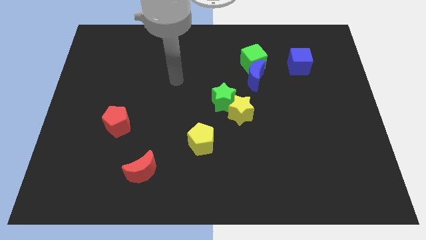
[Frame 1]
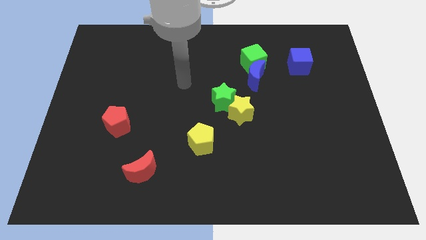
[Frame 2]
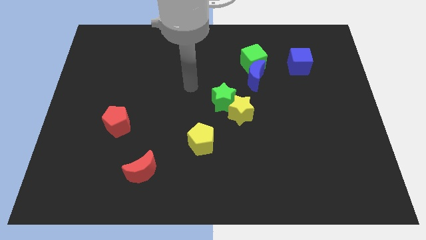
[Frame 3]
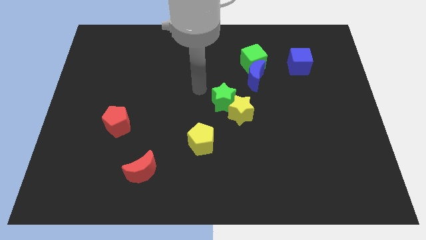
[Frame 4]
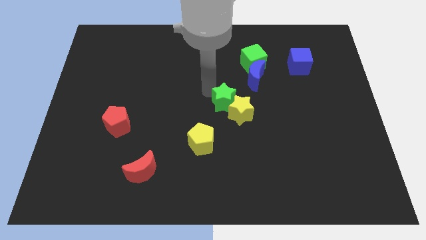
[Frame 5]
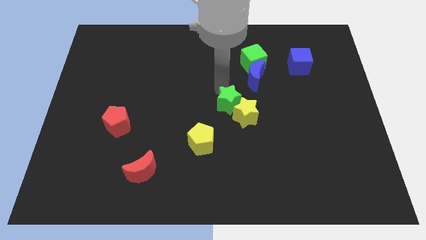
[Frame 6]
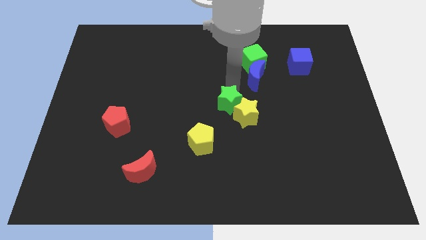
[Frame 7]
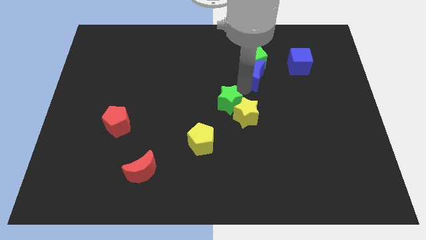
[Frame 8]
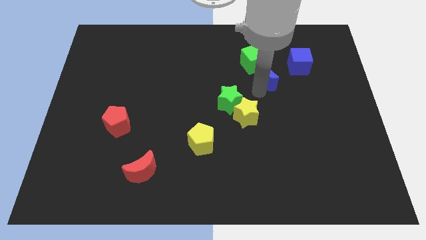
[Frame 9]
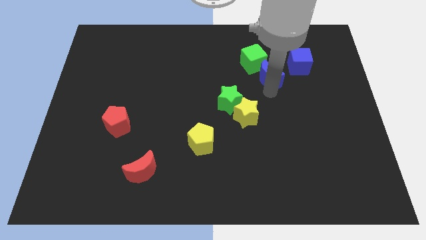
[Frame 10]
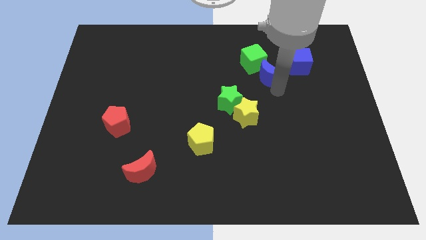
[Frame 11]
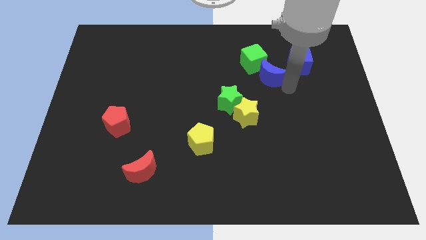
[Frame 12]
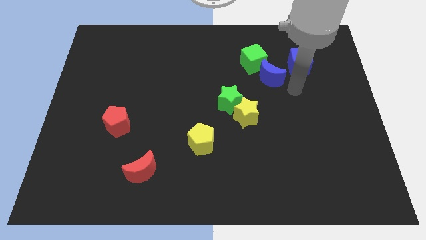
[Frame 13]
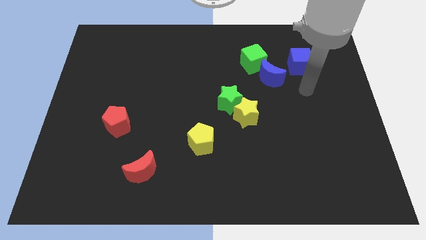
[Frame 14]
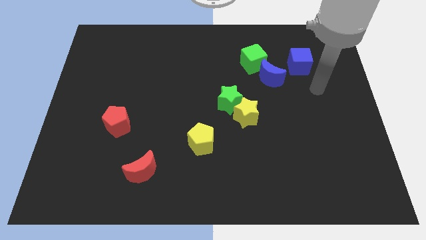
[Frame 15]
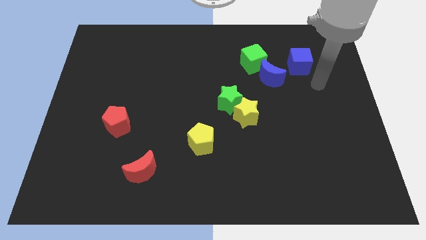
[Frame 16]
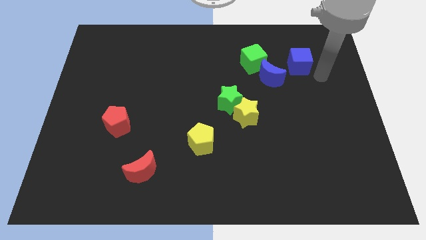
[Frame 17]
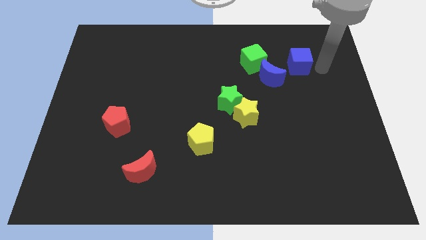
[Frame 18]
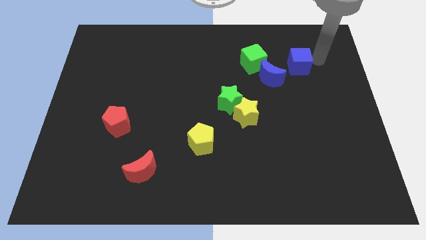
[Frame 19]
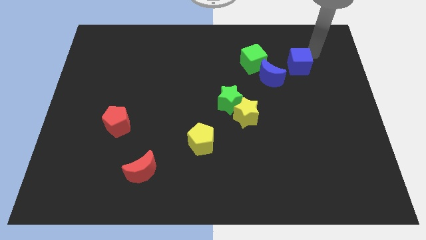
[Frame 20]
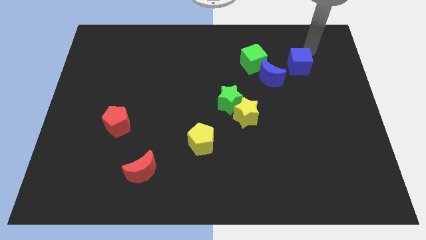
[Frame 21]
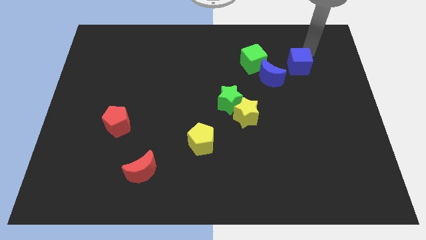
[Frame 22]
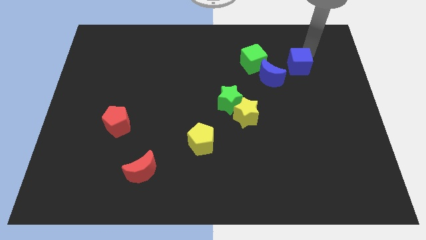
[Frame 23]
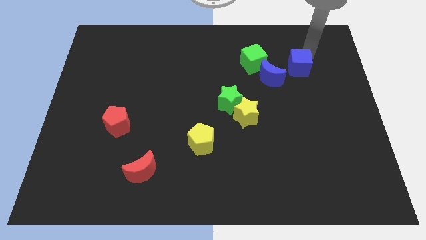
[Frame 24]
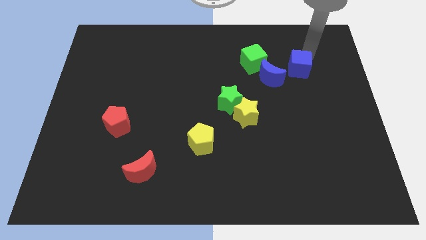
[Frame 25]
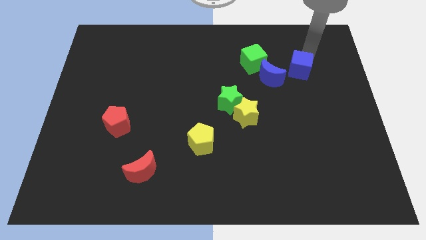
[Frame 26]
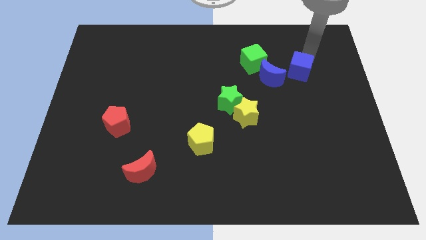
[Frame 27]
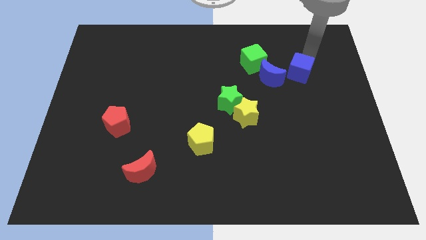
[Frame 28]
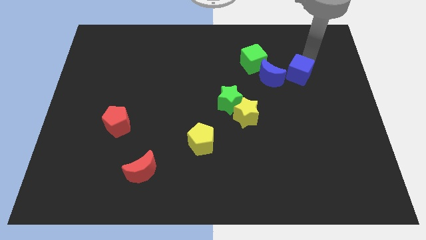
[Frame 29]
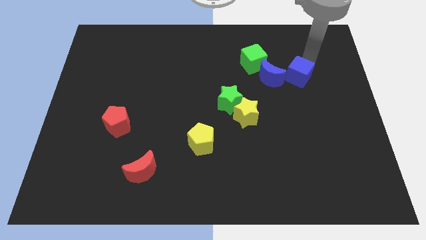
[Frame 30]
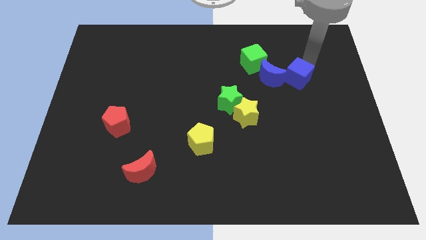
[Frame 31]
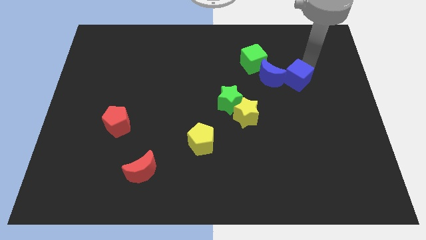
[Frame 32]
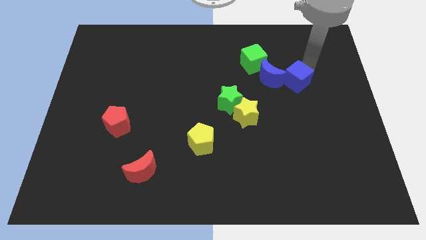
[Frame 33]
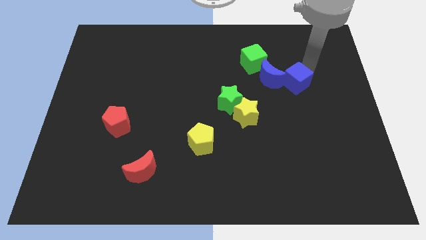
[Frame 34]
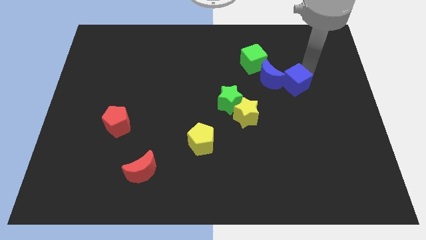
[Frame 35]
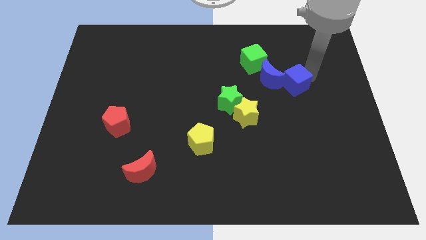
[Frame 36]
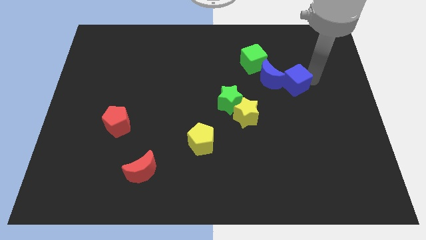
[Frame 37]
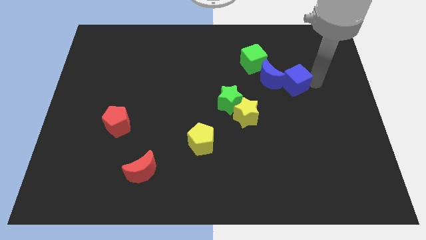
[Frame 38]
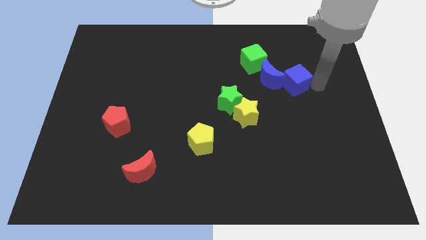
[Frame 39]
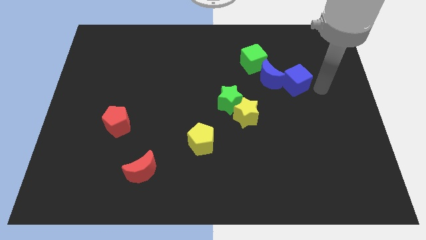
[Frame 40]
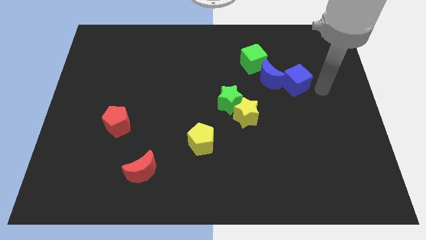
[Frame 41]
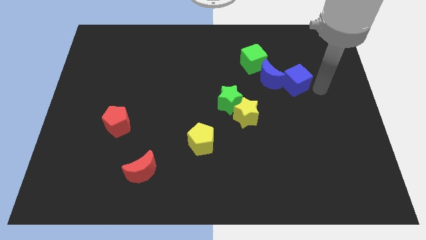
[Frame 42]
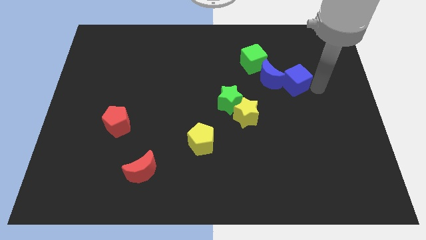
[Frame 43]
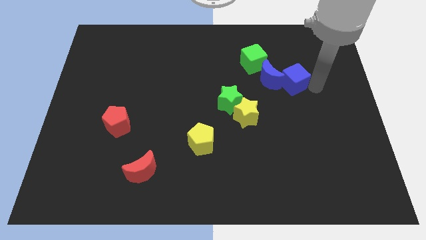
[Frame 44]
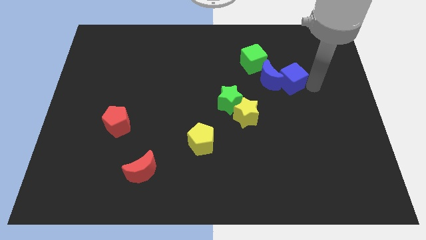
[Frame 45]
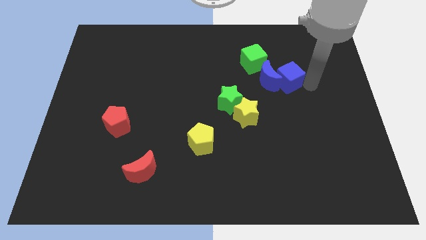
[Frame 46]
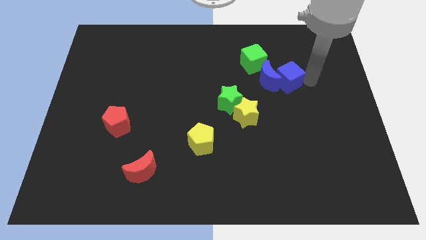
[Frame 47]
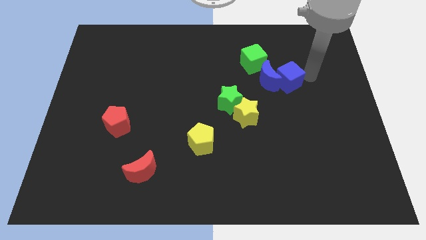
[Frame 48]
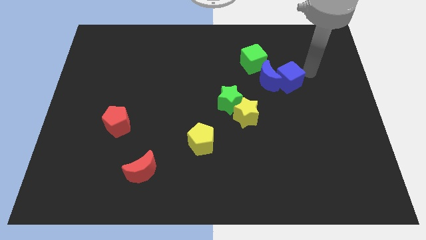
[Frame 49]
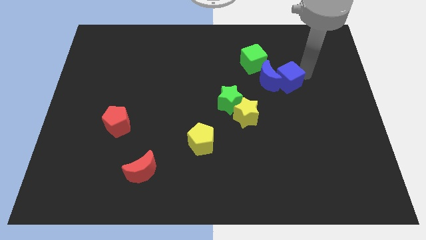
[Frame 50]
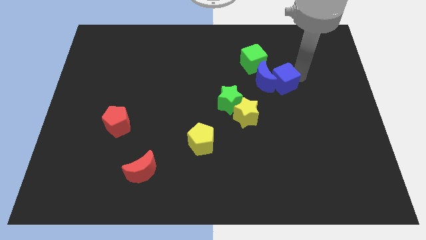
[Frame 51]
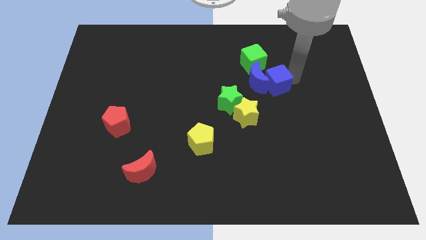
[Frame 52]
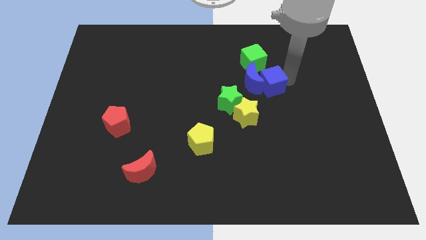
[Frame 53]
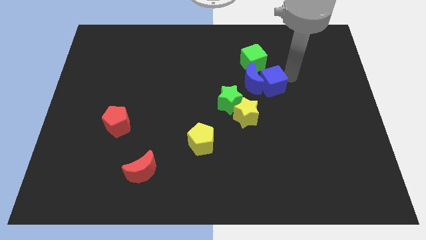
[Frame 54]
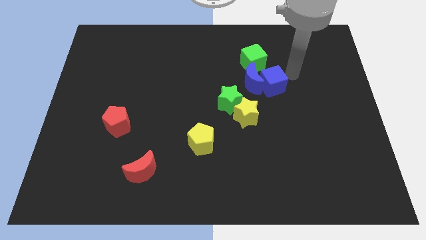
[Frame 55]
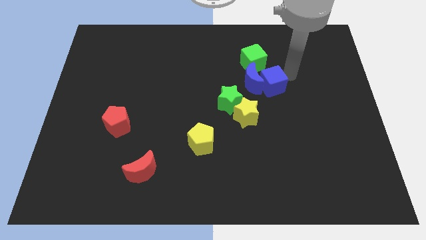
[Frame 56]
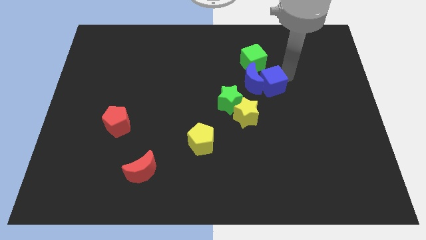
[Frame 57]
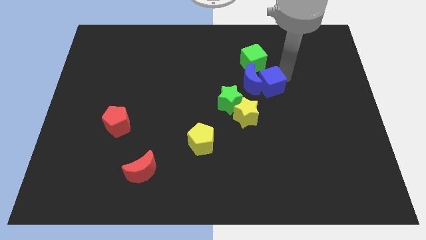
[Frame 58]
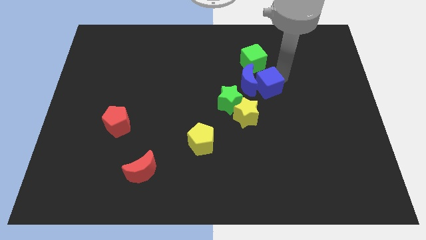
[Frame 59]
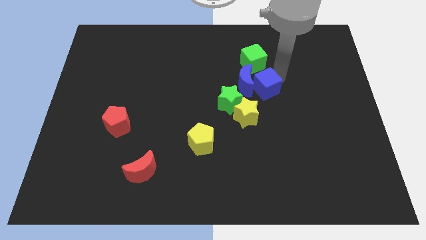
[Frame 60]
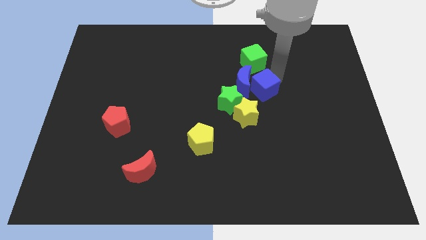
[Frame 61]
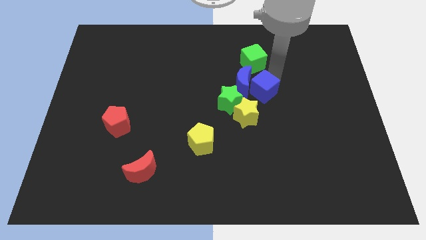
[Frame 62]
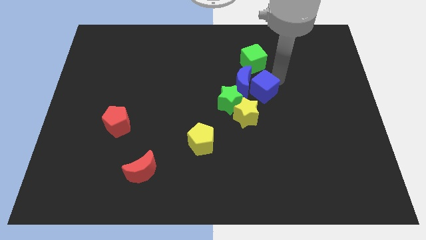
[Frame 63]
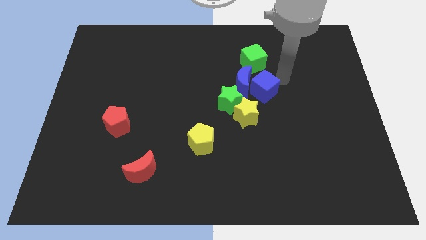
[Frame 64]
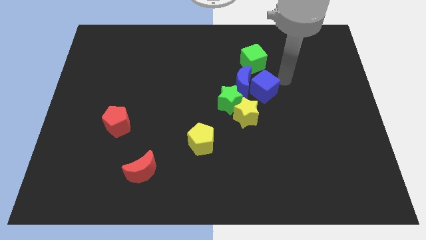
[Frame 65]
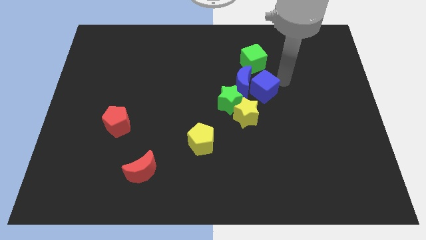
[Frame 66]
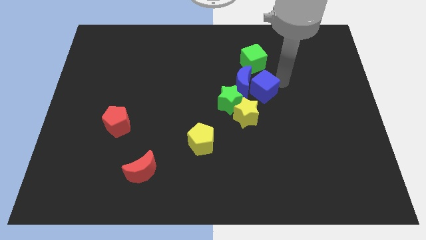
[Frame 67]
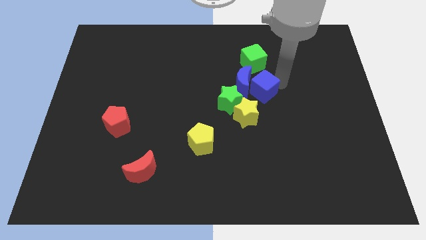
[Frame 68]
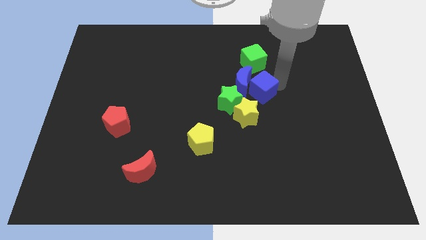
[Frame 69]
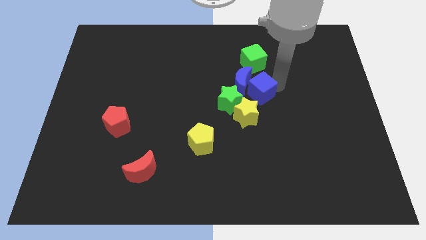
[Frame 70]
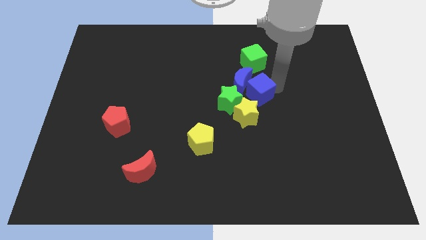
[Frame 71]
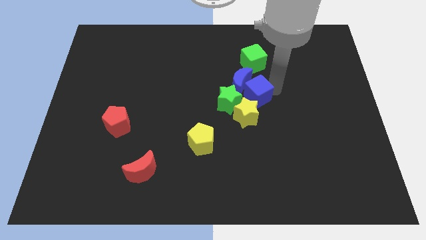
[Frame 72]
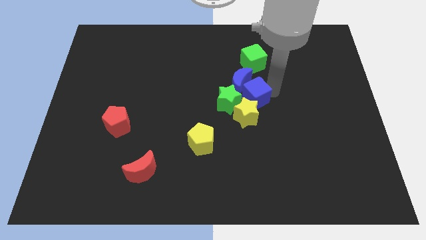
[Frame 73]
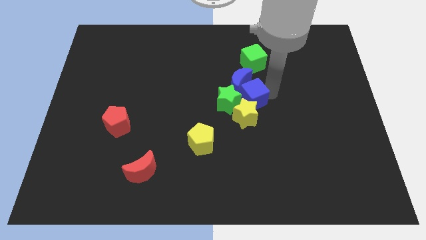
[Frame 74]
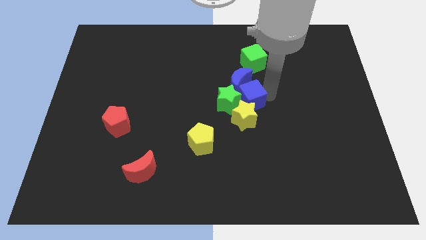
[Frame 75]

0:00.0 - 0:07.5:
push the blue cube towards the green star
